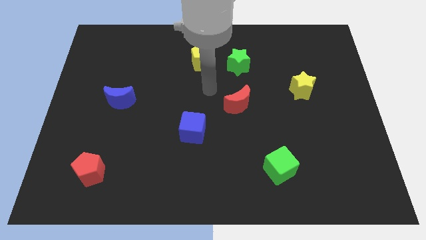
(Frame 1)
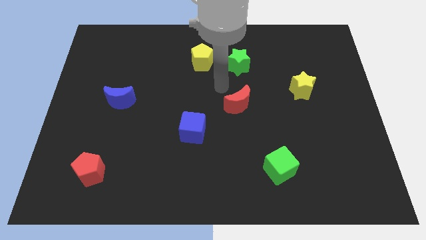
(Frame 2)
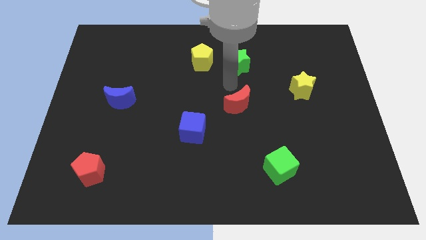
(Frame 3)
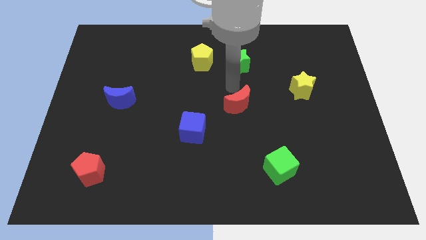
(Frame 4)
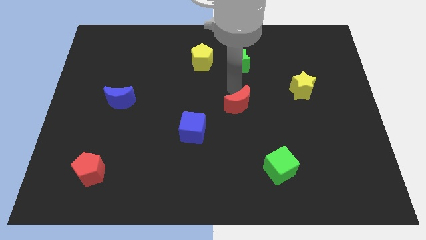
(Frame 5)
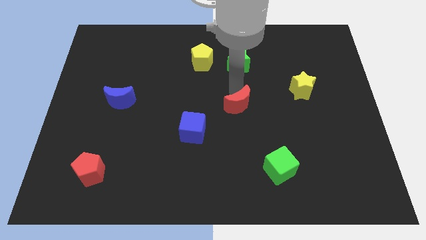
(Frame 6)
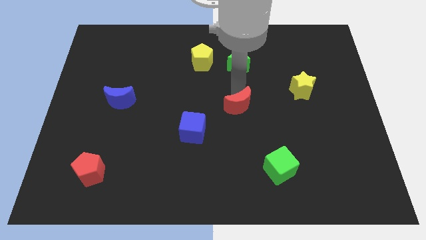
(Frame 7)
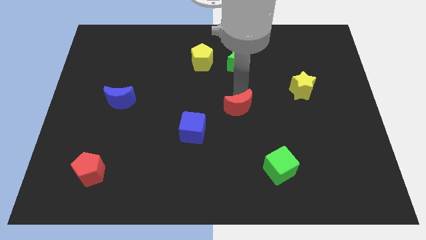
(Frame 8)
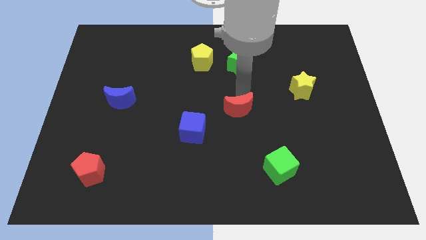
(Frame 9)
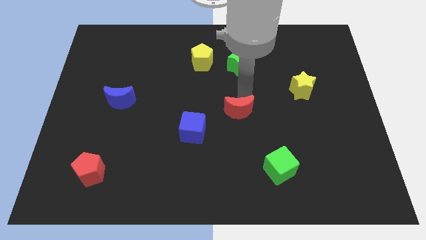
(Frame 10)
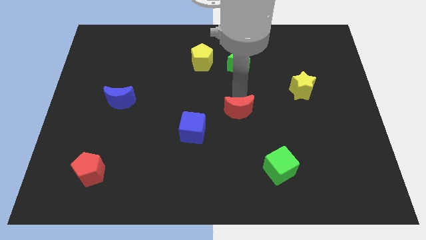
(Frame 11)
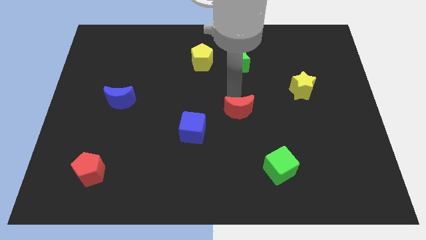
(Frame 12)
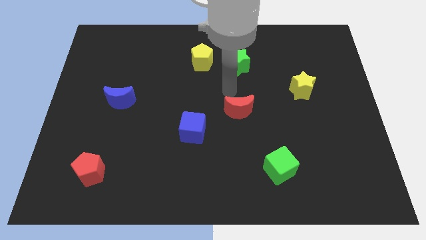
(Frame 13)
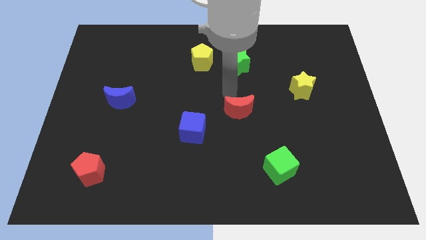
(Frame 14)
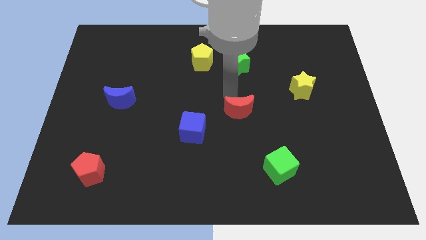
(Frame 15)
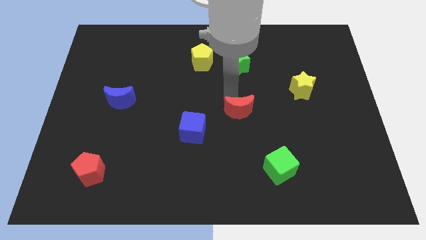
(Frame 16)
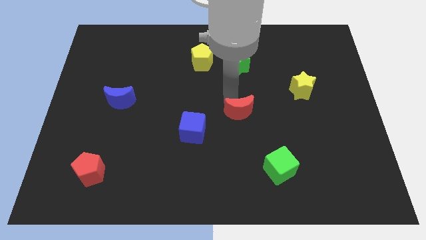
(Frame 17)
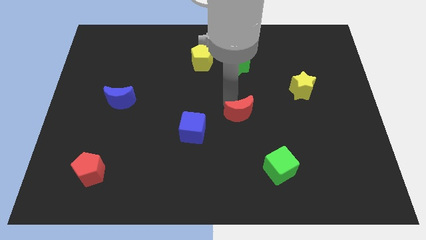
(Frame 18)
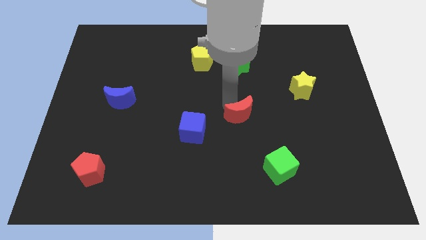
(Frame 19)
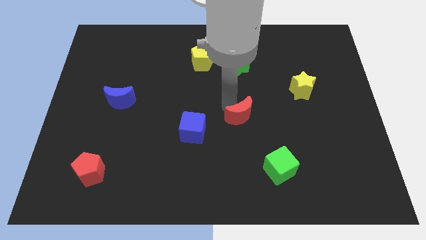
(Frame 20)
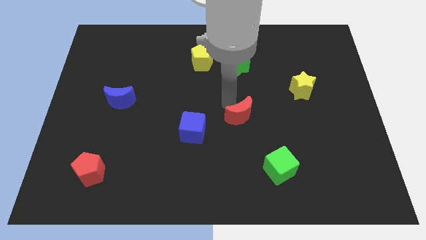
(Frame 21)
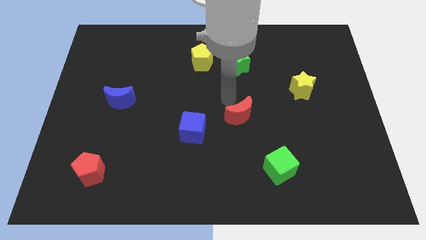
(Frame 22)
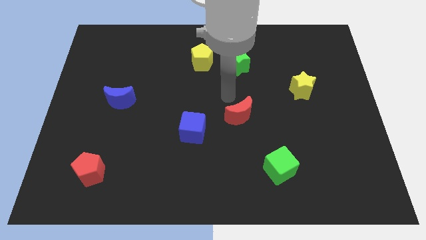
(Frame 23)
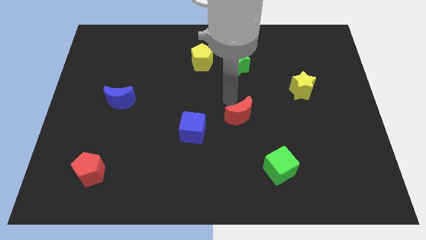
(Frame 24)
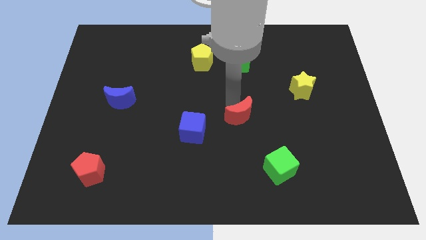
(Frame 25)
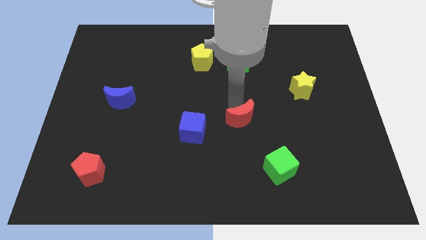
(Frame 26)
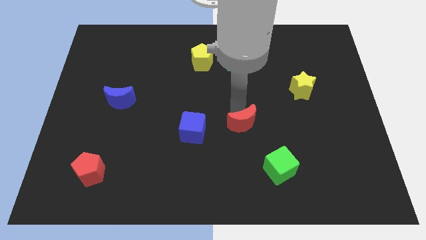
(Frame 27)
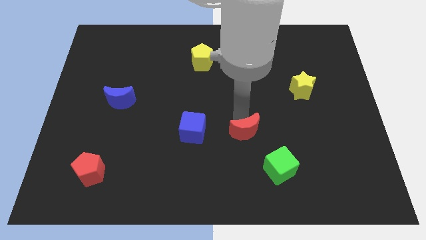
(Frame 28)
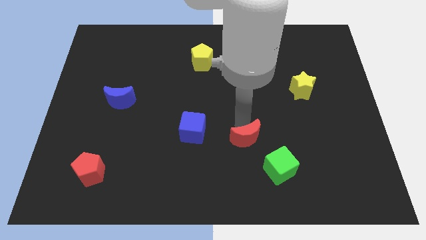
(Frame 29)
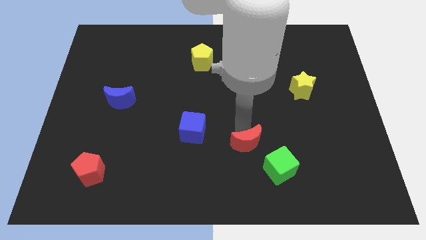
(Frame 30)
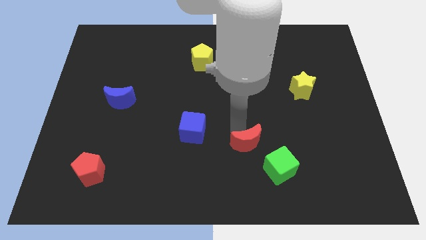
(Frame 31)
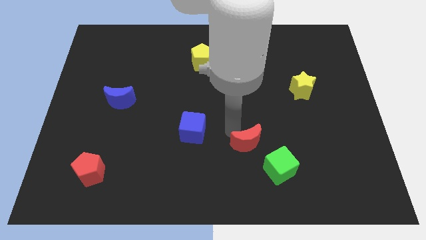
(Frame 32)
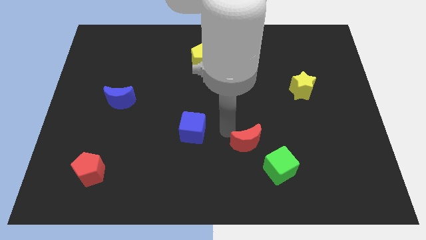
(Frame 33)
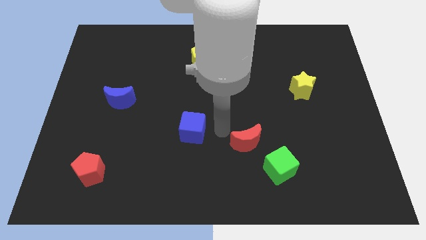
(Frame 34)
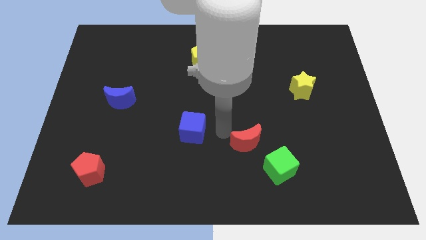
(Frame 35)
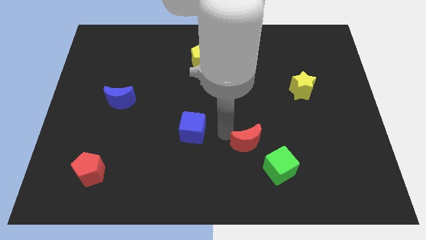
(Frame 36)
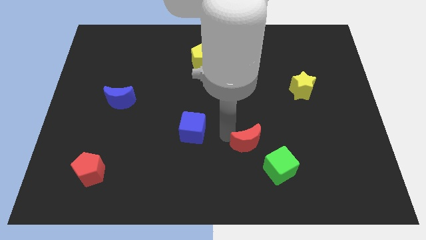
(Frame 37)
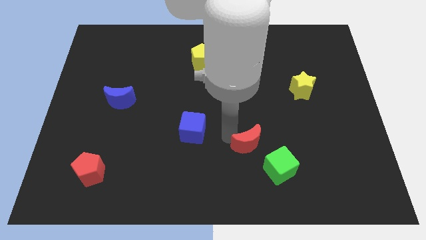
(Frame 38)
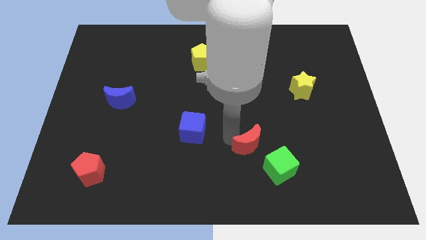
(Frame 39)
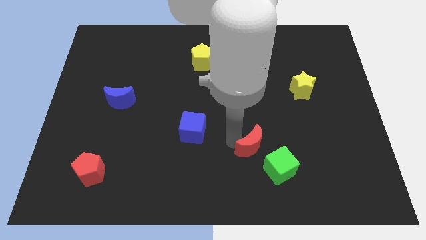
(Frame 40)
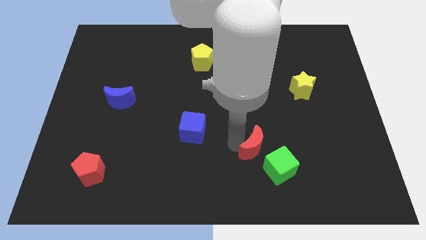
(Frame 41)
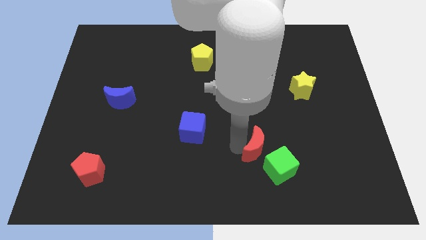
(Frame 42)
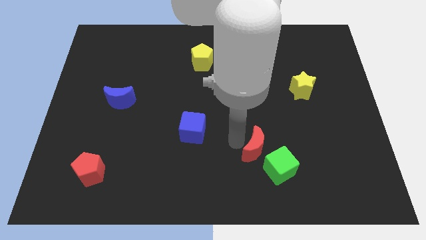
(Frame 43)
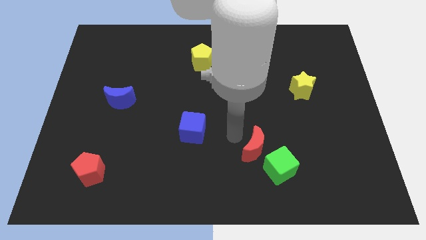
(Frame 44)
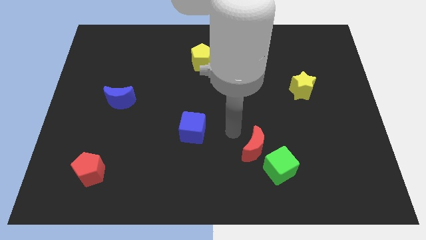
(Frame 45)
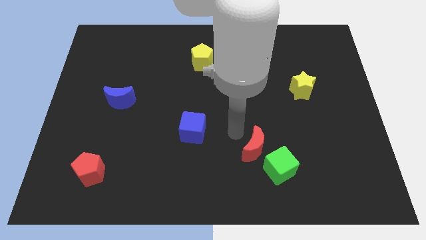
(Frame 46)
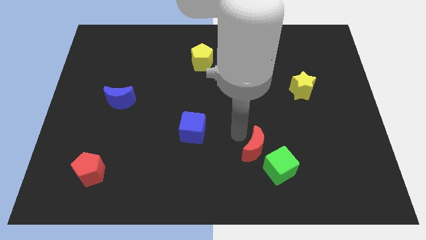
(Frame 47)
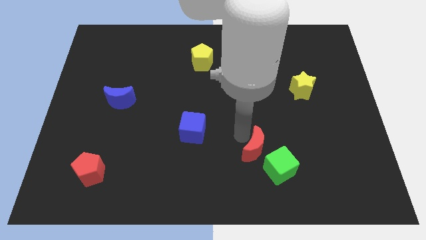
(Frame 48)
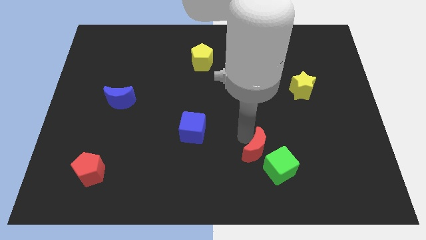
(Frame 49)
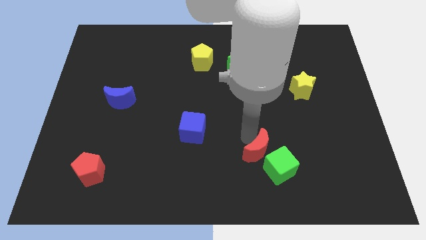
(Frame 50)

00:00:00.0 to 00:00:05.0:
move the red moon towards the green cube

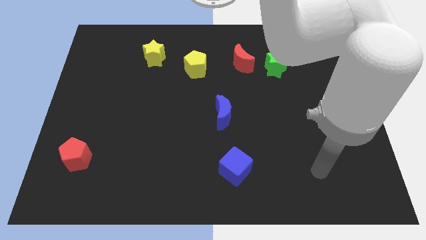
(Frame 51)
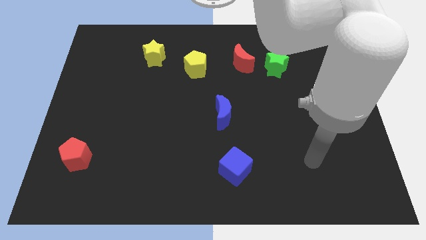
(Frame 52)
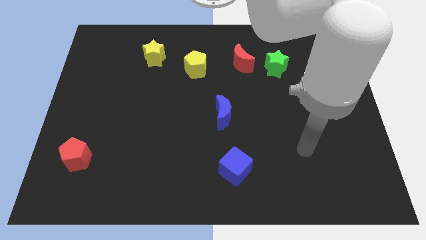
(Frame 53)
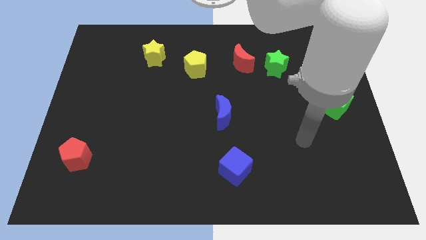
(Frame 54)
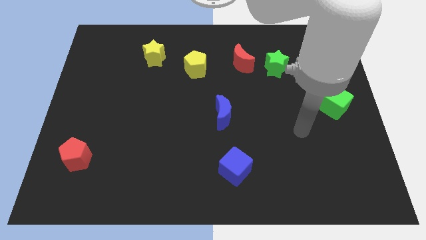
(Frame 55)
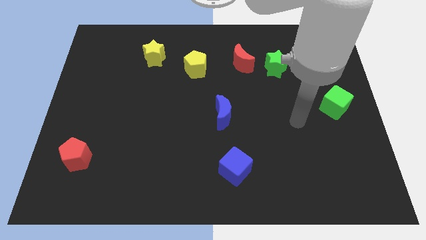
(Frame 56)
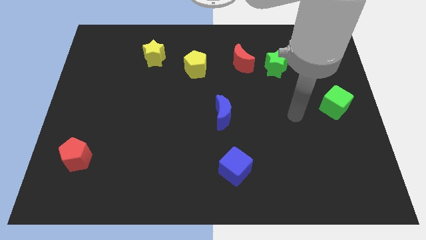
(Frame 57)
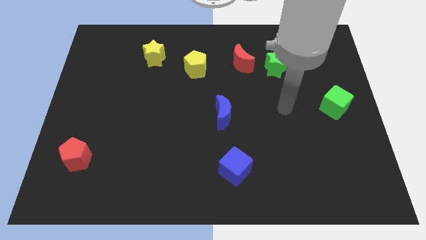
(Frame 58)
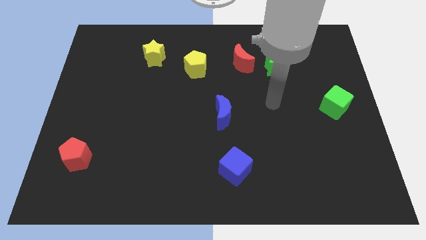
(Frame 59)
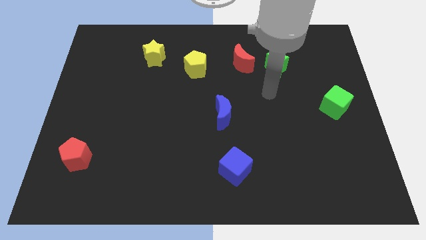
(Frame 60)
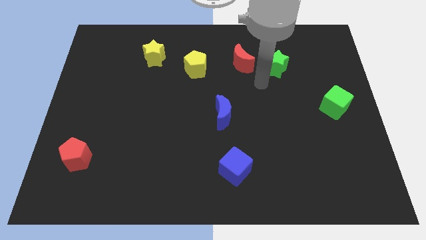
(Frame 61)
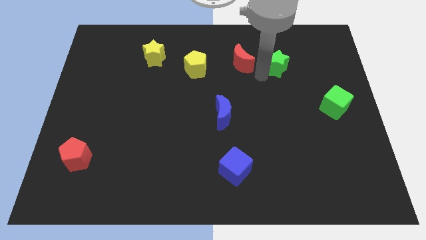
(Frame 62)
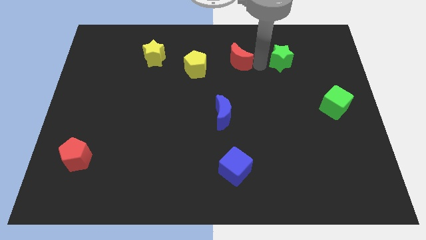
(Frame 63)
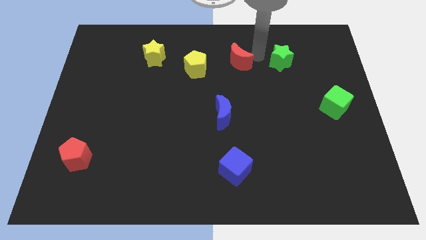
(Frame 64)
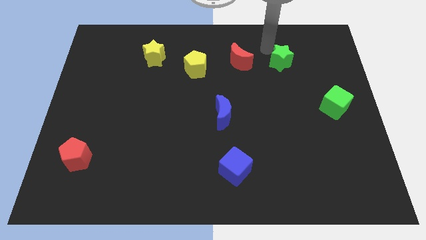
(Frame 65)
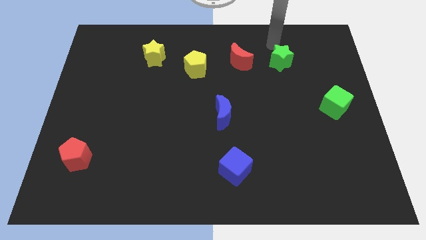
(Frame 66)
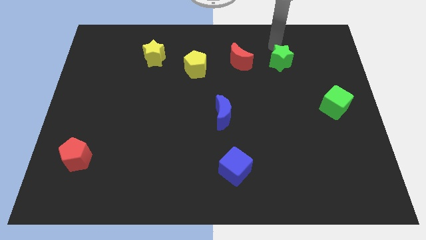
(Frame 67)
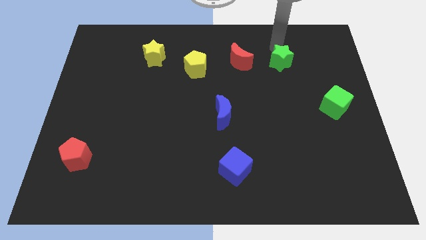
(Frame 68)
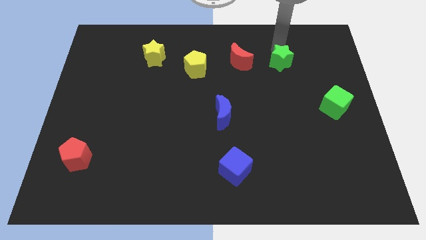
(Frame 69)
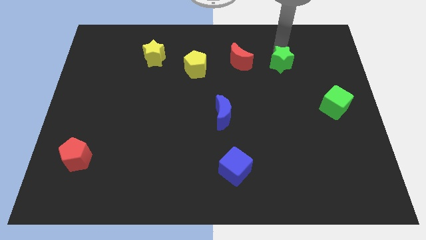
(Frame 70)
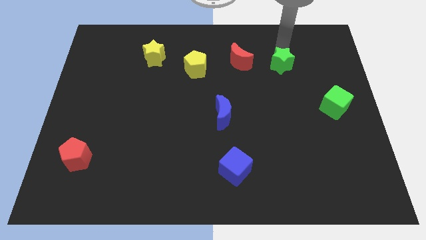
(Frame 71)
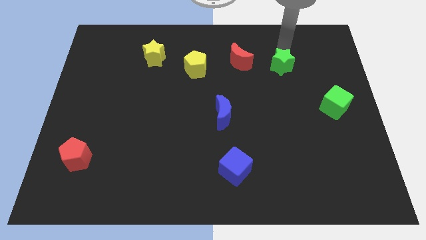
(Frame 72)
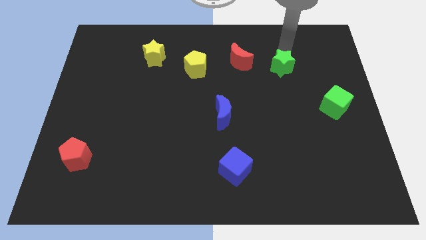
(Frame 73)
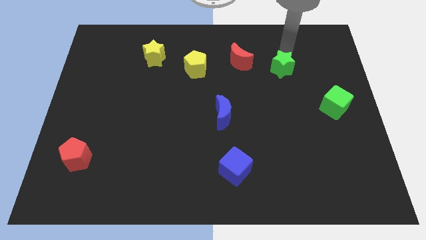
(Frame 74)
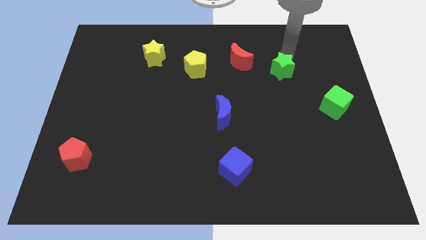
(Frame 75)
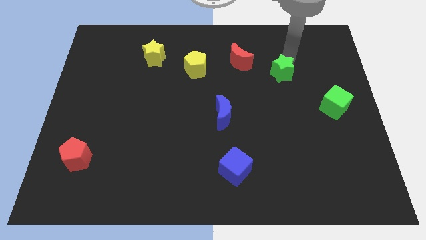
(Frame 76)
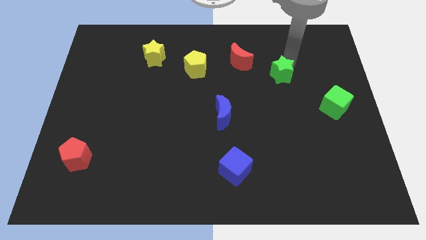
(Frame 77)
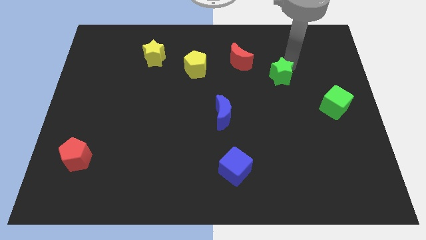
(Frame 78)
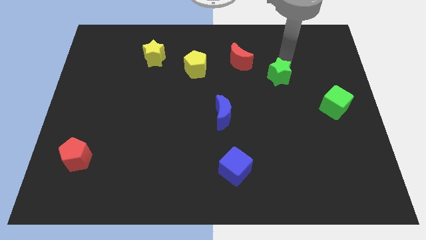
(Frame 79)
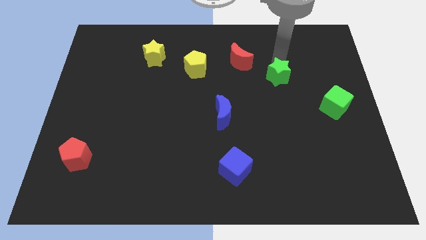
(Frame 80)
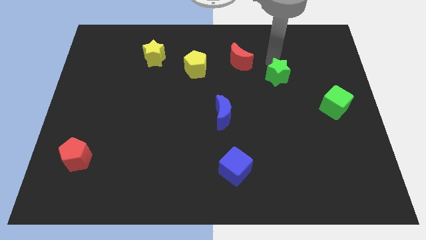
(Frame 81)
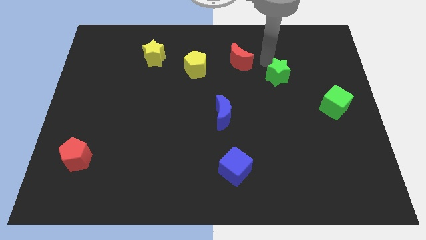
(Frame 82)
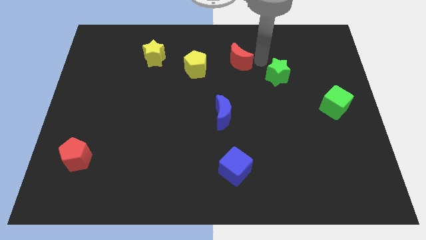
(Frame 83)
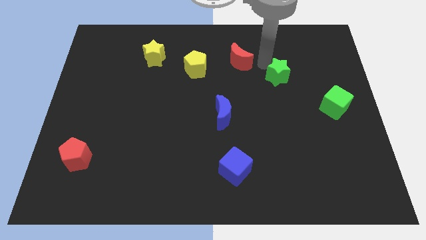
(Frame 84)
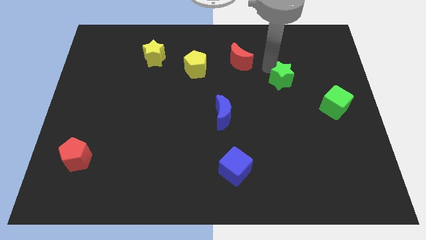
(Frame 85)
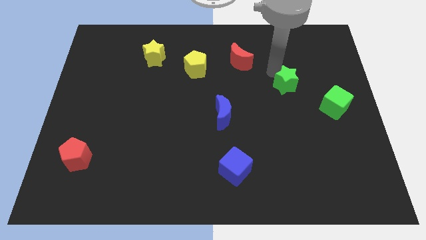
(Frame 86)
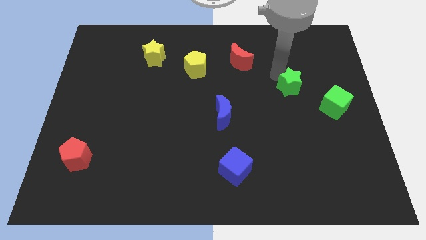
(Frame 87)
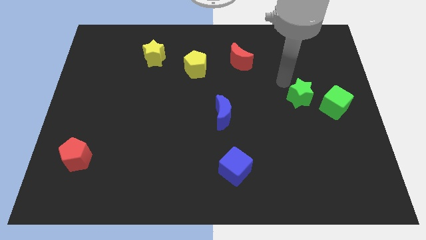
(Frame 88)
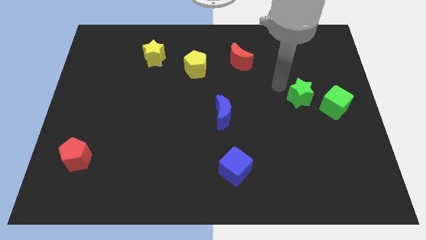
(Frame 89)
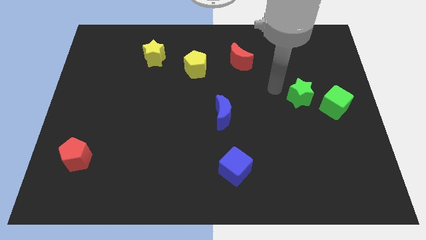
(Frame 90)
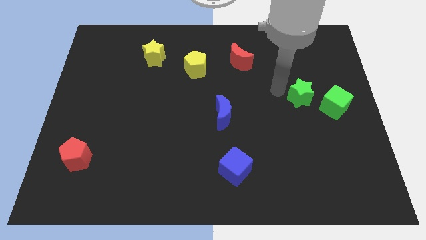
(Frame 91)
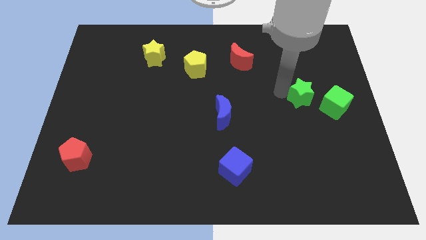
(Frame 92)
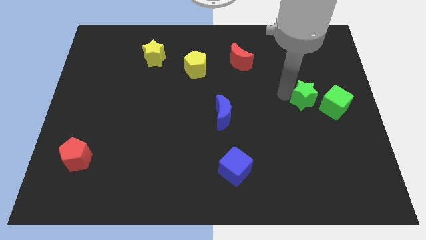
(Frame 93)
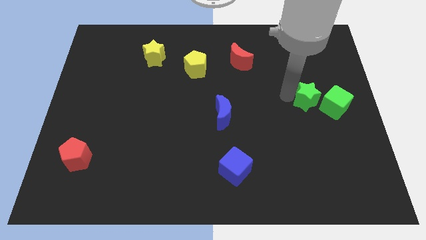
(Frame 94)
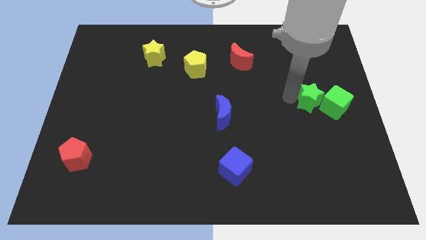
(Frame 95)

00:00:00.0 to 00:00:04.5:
push the green star towards the green cube
